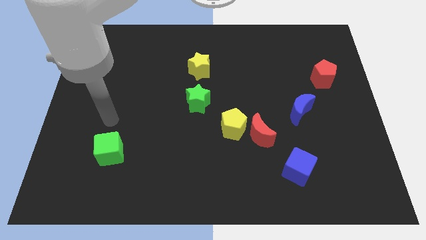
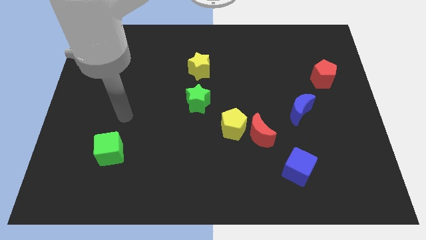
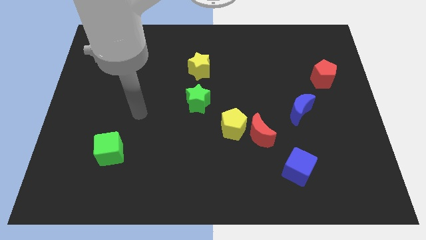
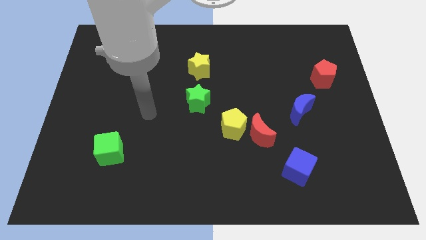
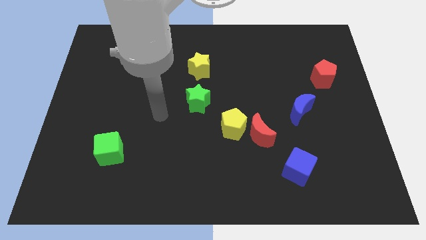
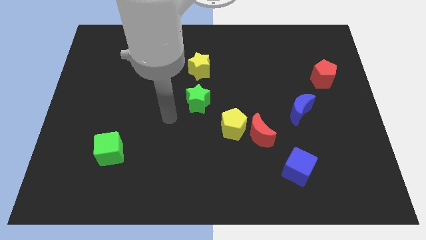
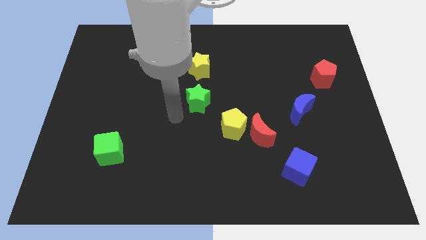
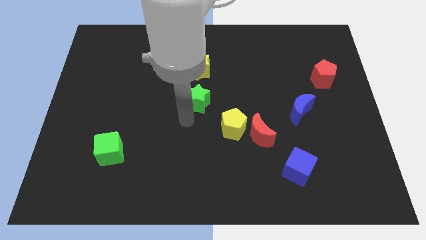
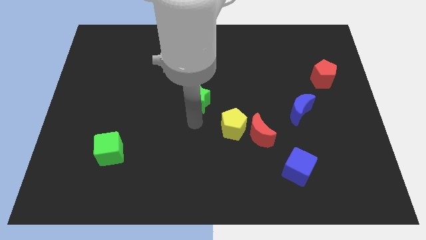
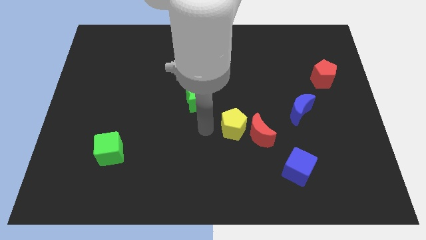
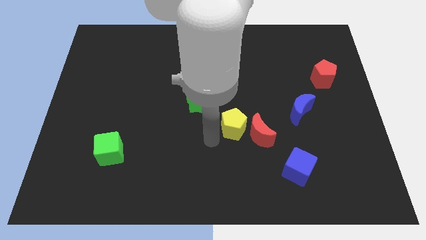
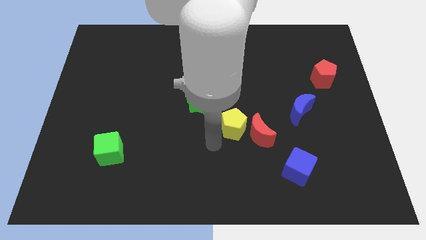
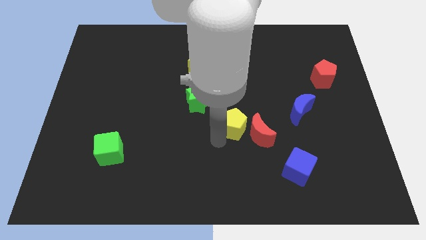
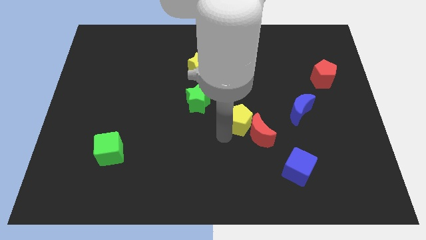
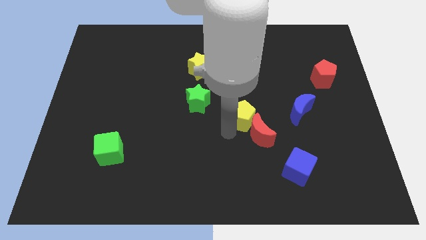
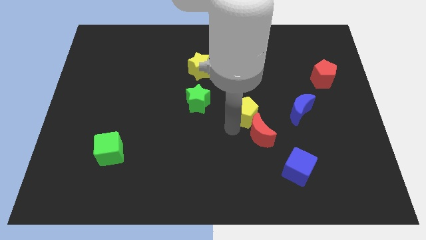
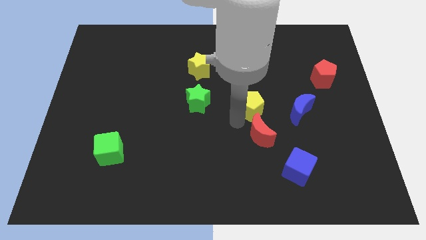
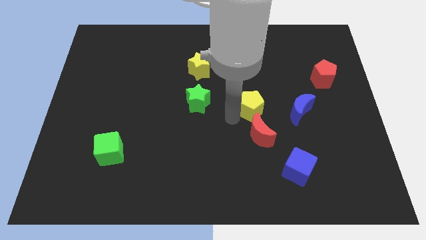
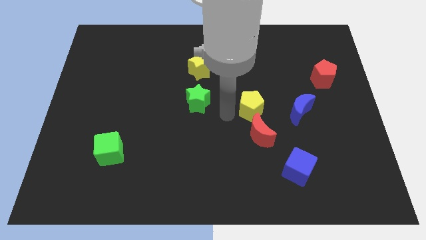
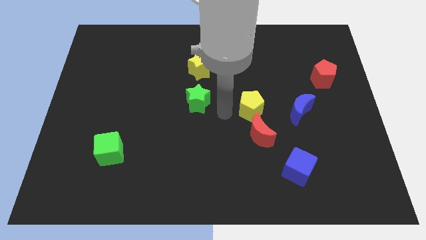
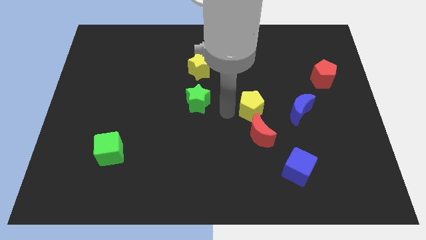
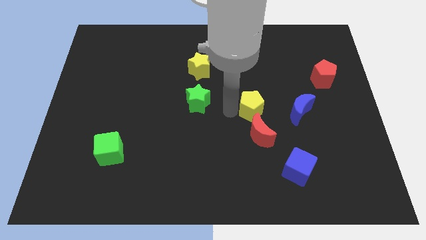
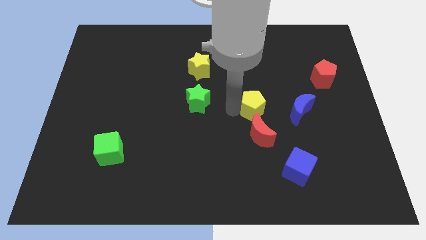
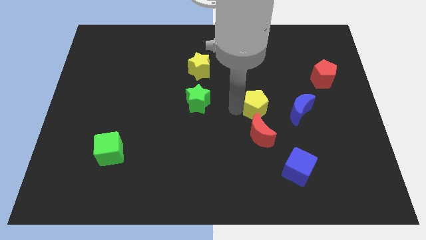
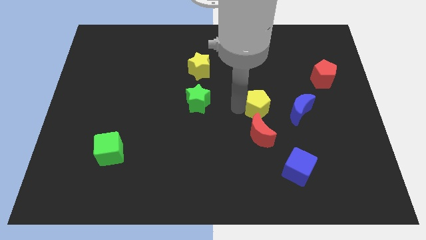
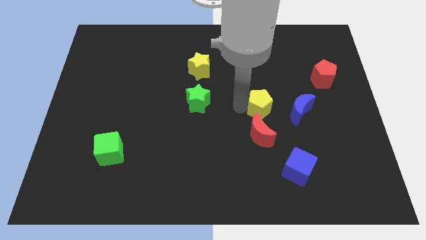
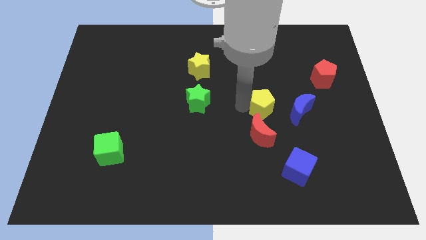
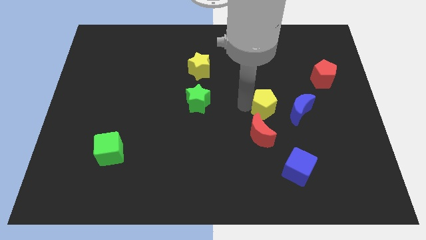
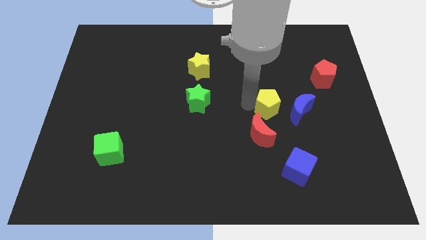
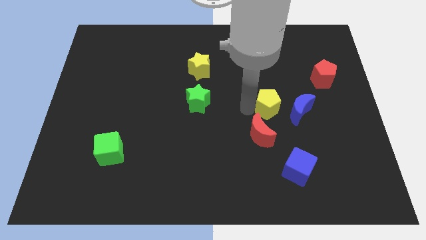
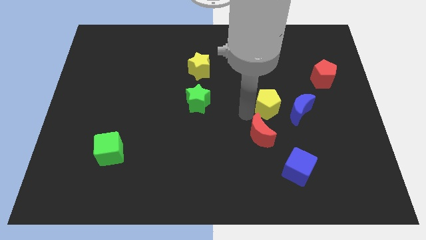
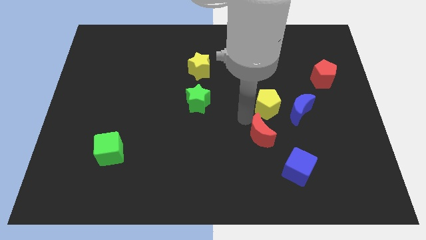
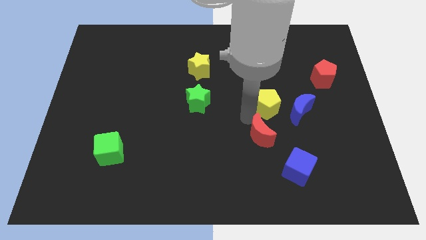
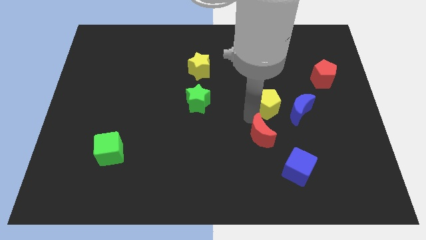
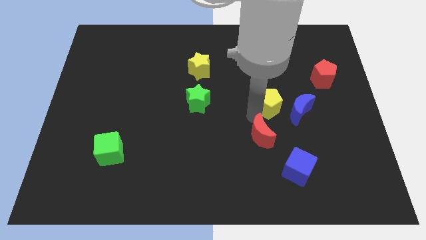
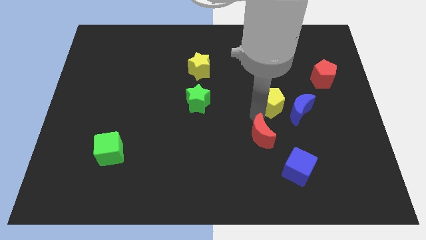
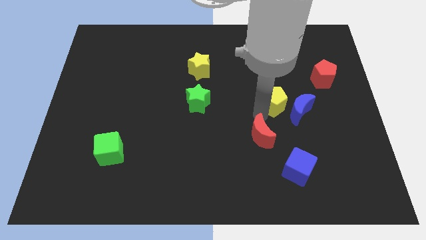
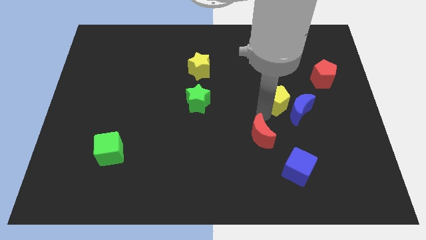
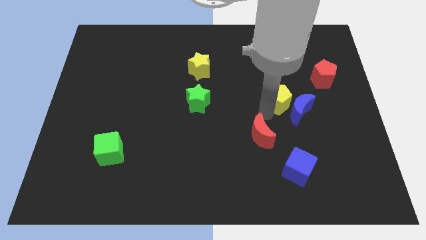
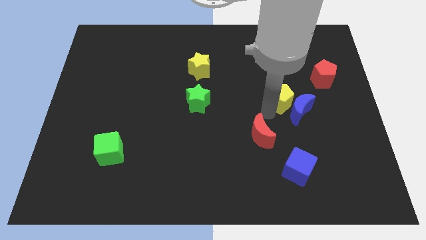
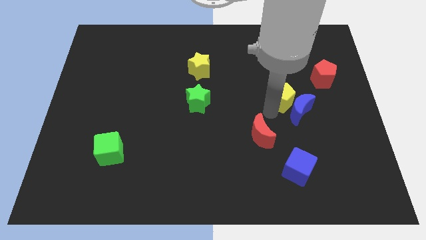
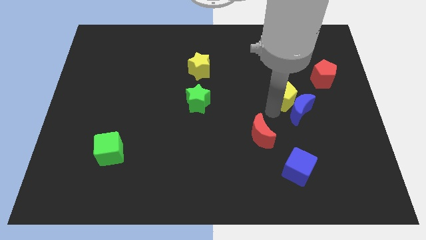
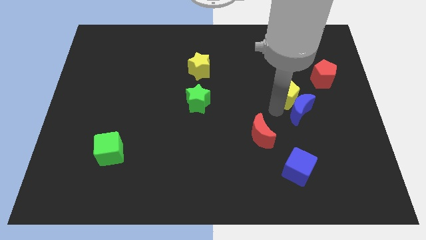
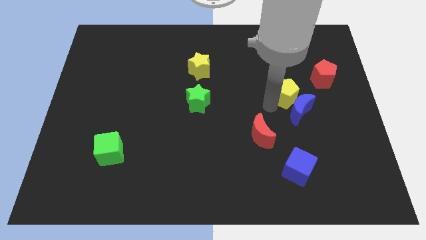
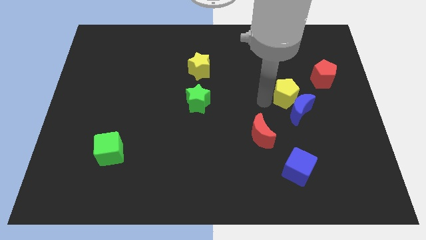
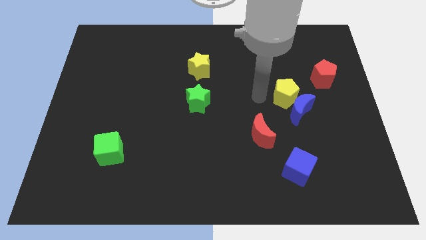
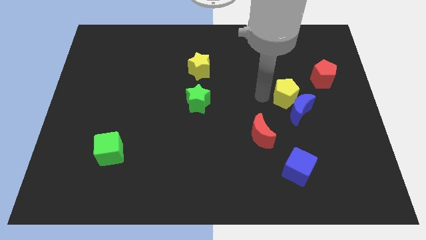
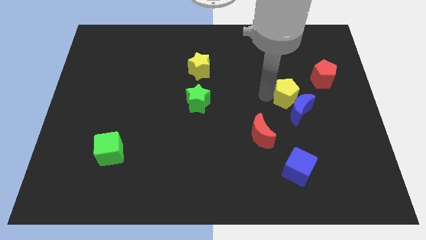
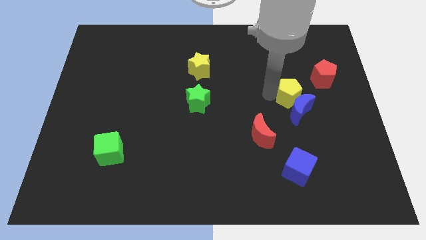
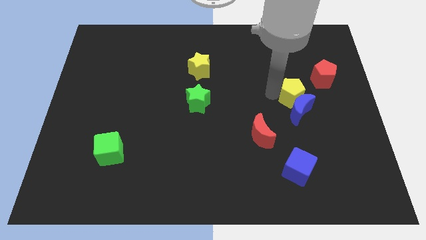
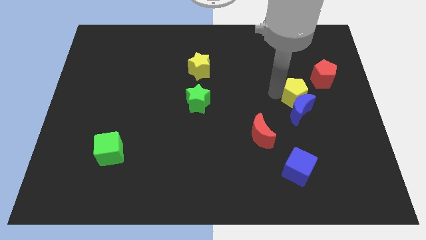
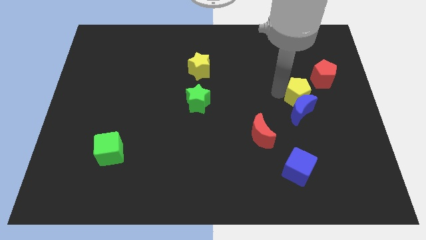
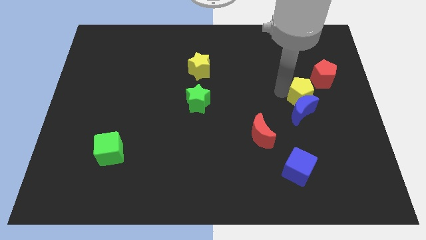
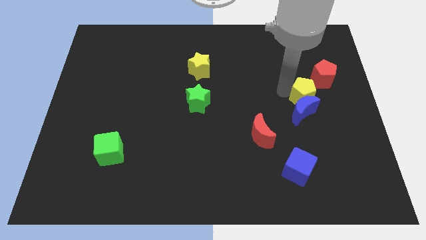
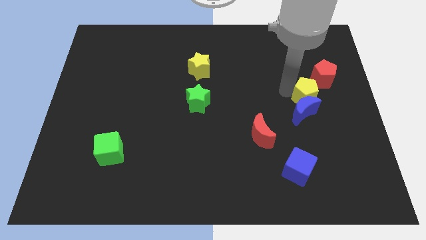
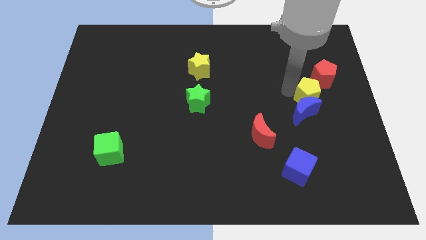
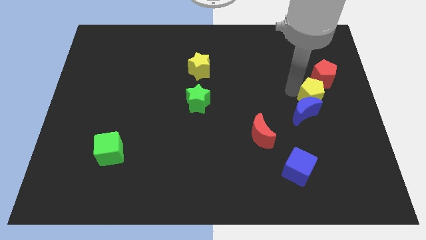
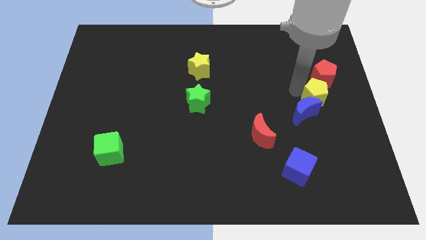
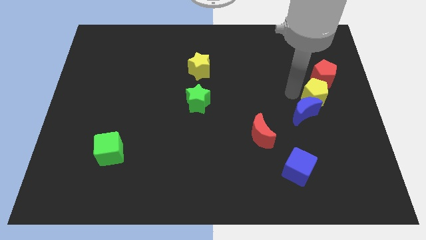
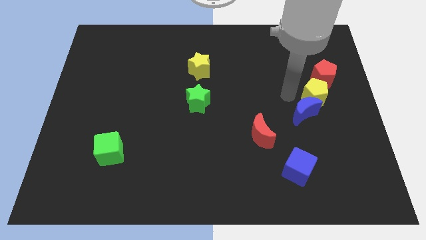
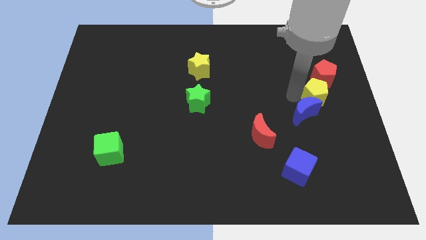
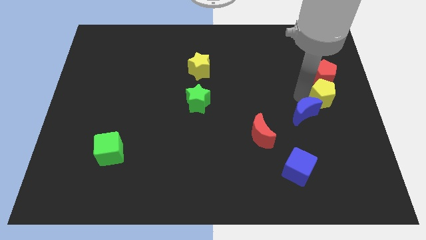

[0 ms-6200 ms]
push the yellow pentagon to the right side
